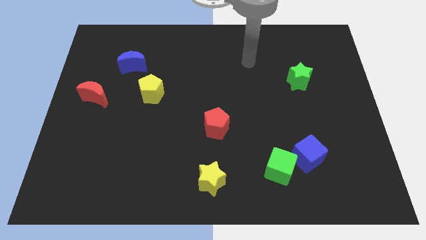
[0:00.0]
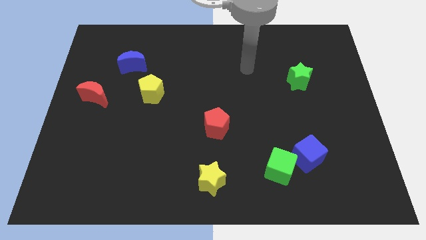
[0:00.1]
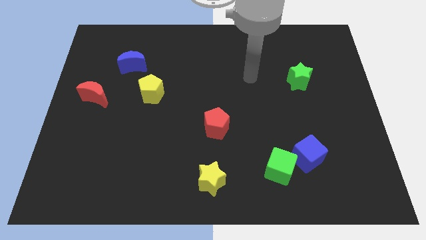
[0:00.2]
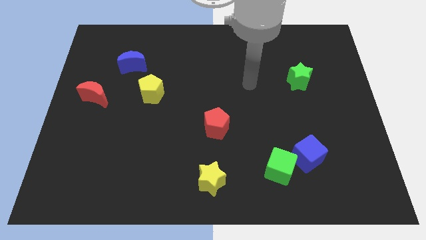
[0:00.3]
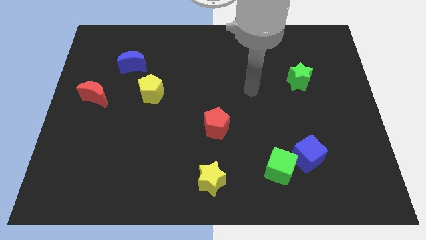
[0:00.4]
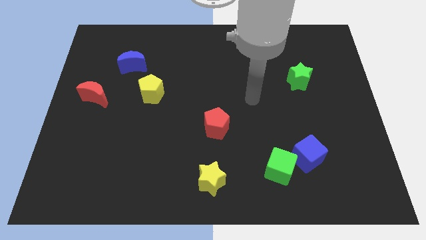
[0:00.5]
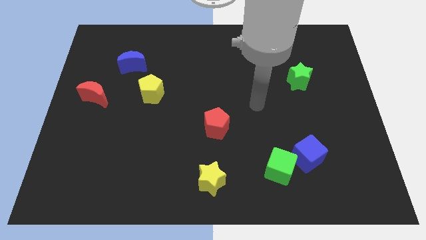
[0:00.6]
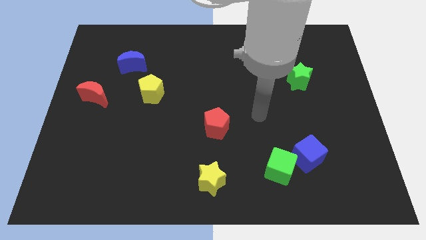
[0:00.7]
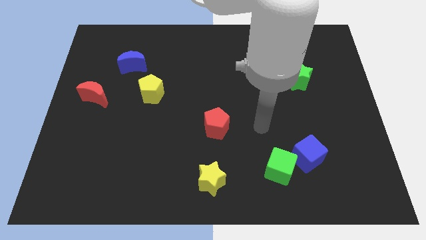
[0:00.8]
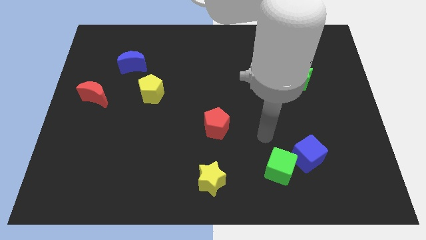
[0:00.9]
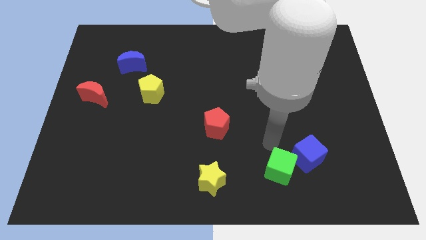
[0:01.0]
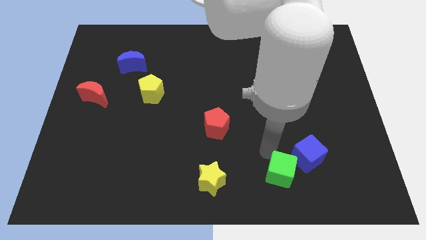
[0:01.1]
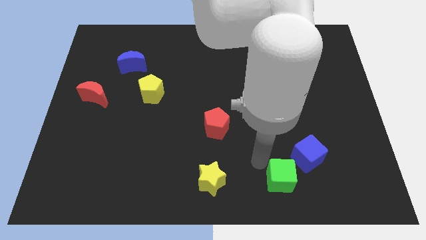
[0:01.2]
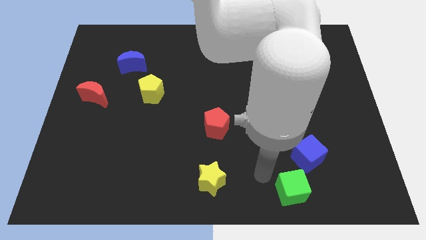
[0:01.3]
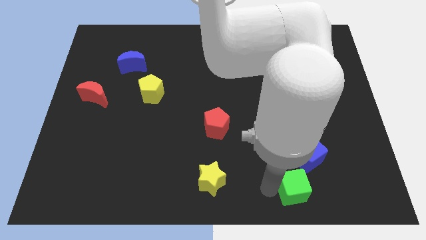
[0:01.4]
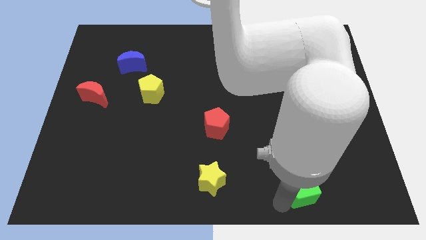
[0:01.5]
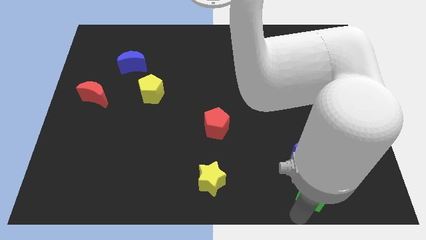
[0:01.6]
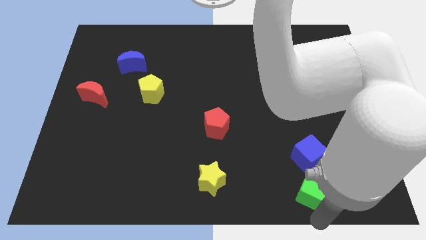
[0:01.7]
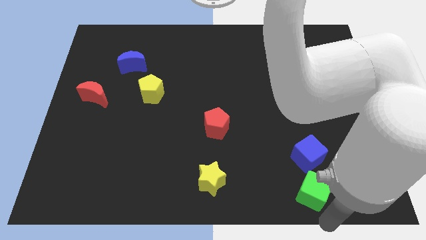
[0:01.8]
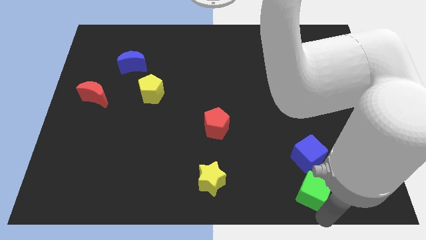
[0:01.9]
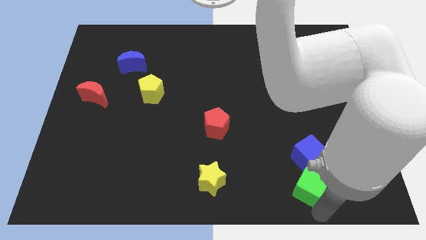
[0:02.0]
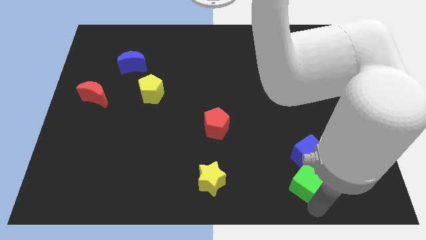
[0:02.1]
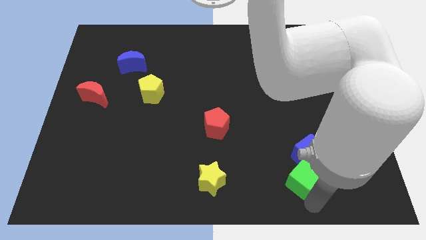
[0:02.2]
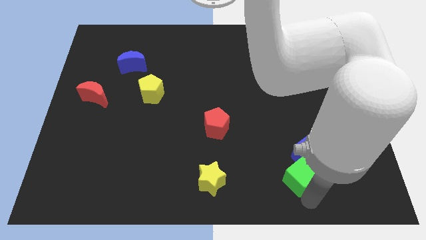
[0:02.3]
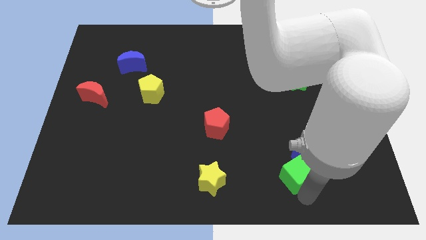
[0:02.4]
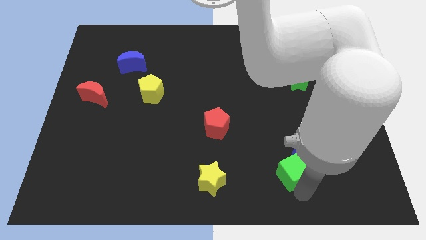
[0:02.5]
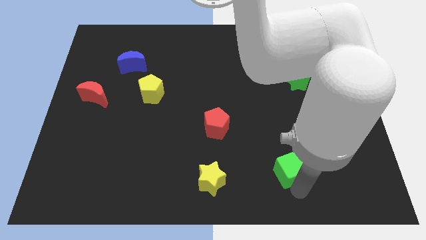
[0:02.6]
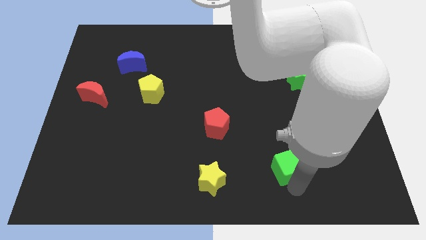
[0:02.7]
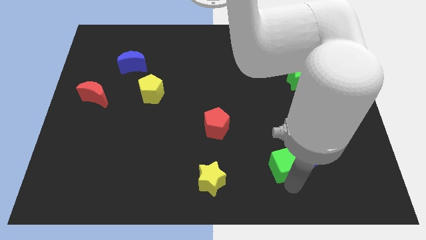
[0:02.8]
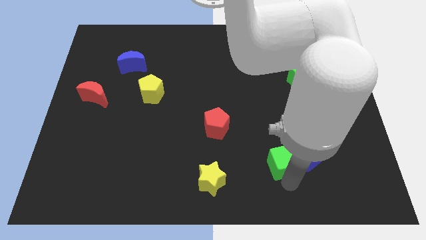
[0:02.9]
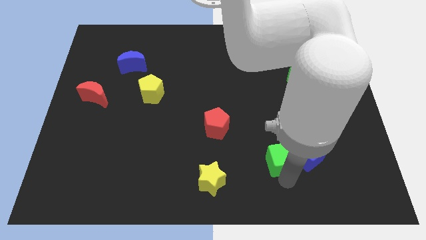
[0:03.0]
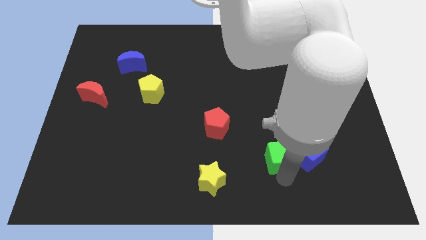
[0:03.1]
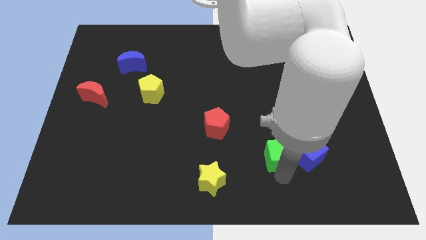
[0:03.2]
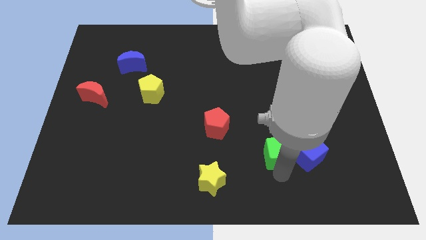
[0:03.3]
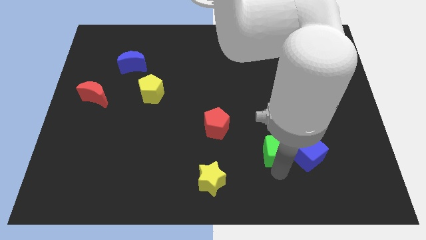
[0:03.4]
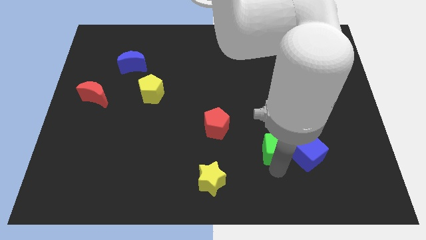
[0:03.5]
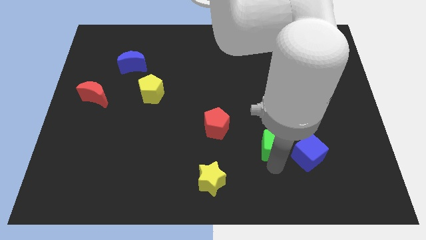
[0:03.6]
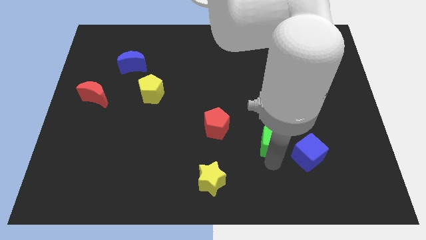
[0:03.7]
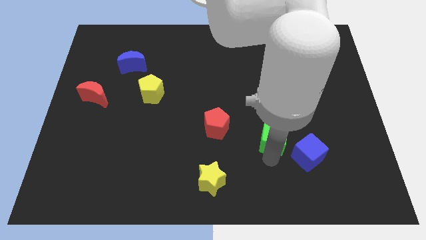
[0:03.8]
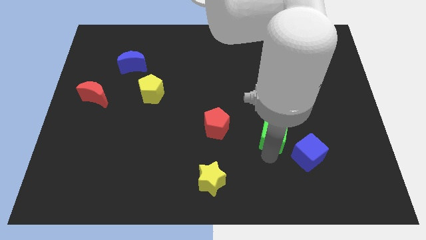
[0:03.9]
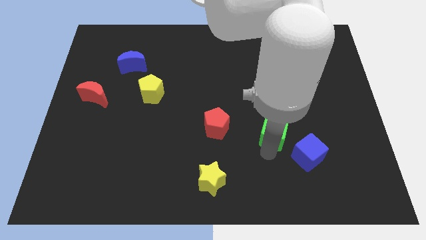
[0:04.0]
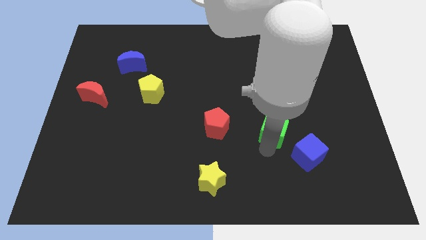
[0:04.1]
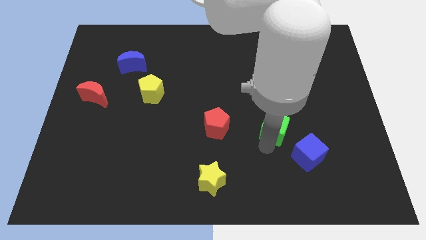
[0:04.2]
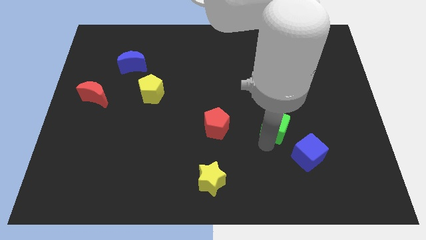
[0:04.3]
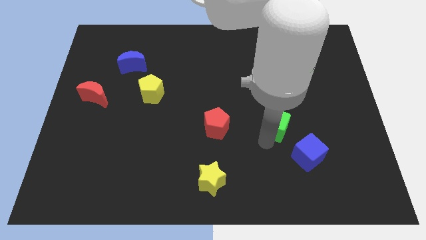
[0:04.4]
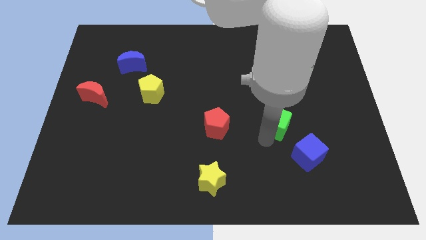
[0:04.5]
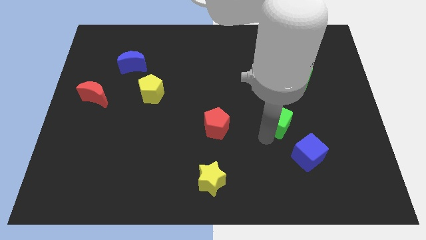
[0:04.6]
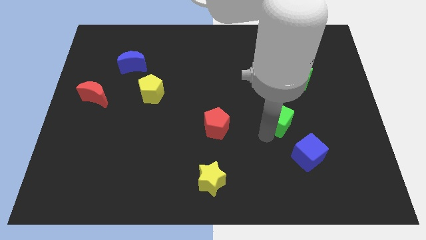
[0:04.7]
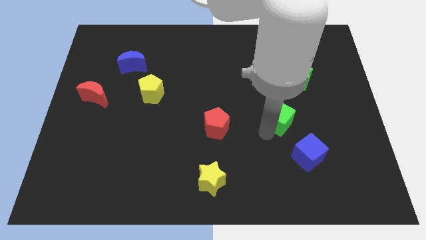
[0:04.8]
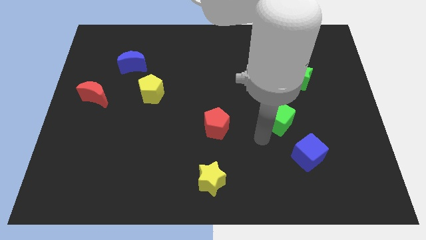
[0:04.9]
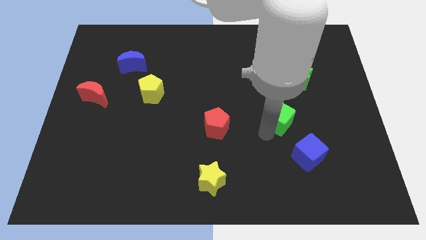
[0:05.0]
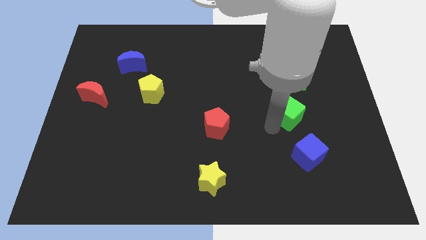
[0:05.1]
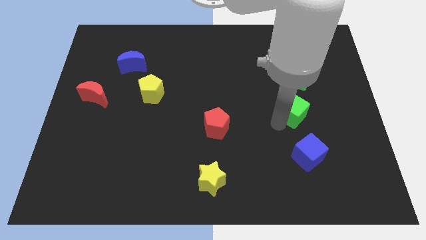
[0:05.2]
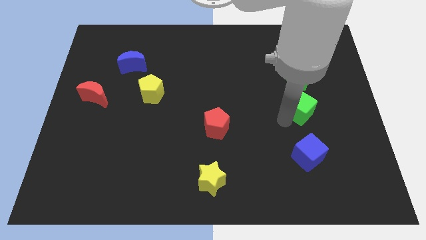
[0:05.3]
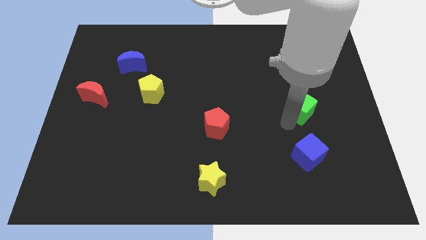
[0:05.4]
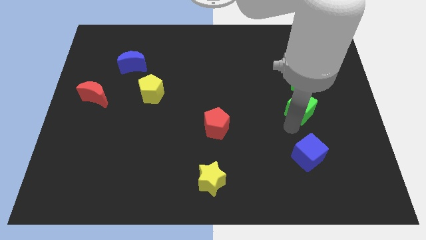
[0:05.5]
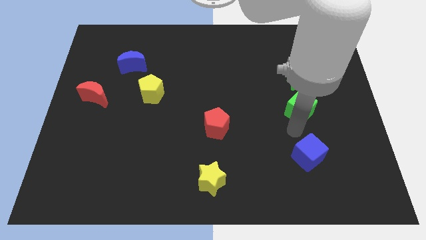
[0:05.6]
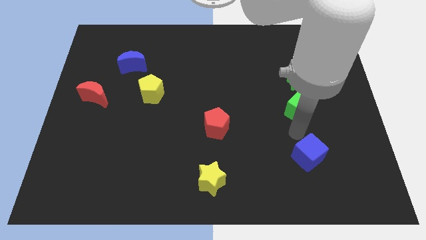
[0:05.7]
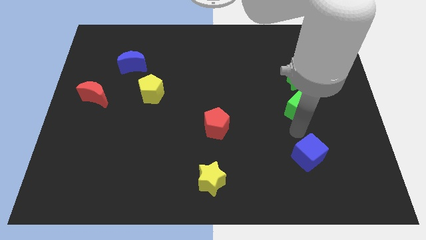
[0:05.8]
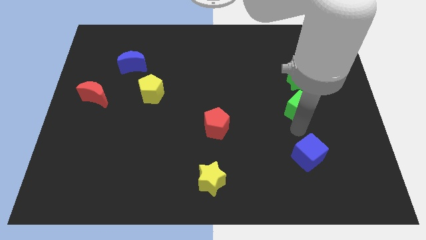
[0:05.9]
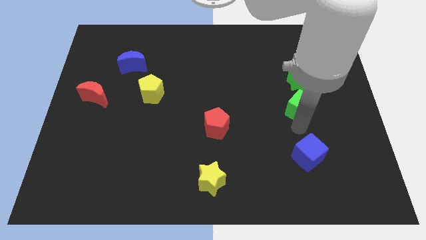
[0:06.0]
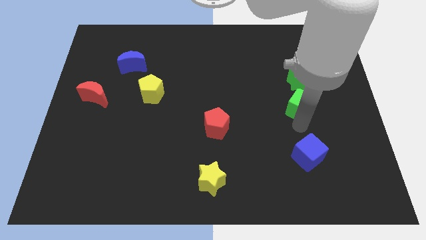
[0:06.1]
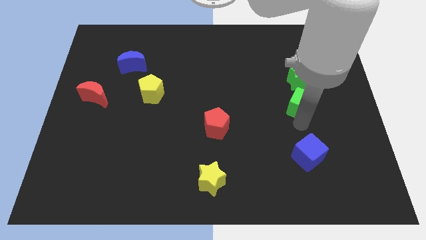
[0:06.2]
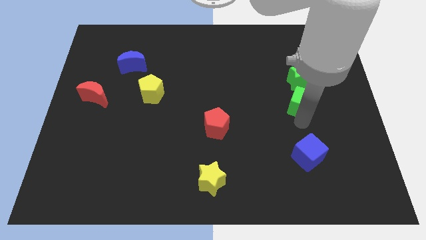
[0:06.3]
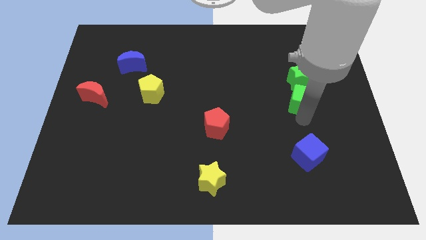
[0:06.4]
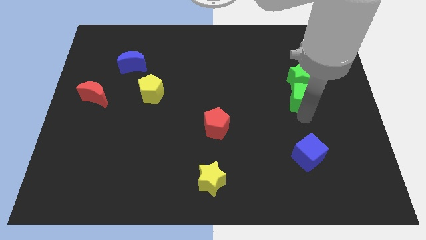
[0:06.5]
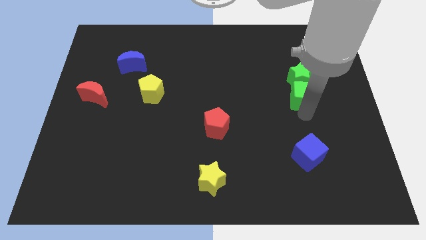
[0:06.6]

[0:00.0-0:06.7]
push the green cube next to the green star

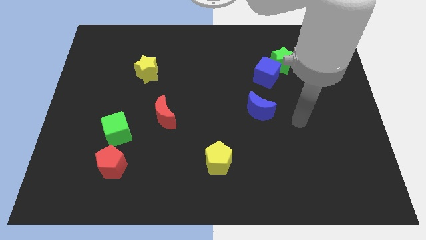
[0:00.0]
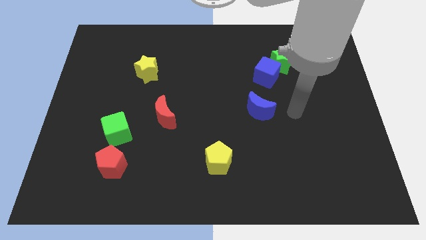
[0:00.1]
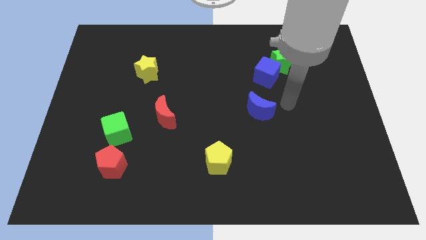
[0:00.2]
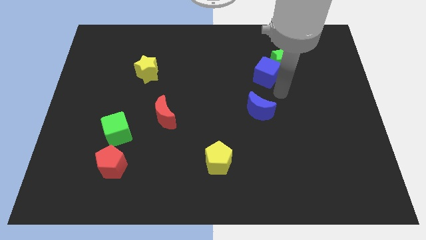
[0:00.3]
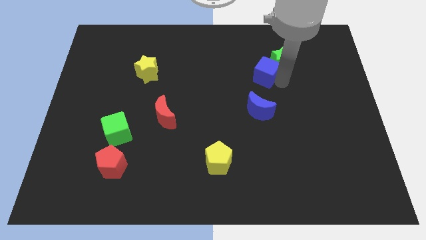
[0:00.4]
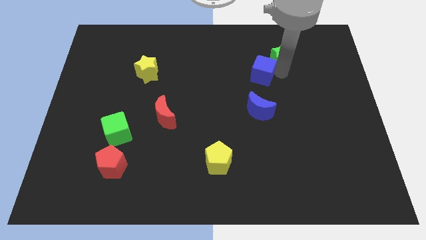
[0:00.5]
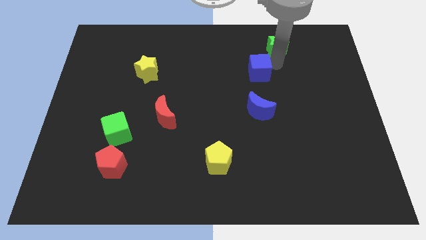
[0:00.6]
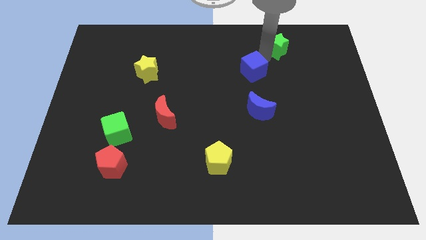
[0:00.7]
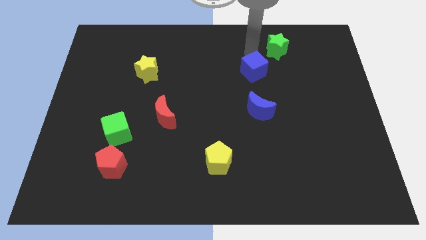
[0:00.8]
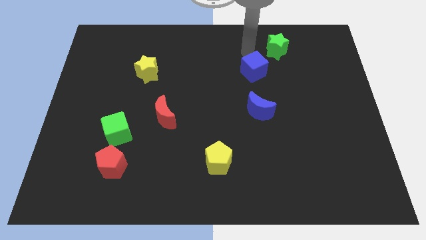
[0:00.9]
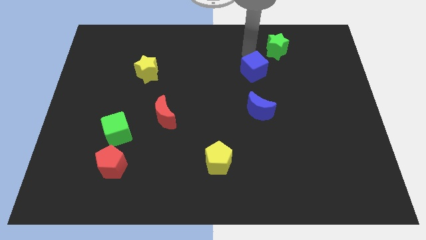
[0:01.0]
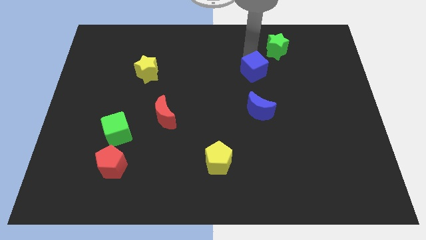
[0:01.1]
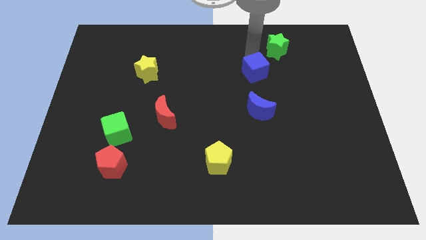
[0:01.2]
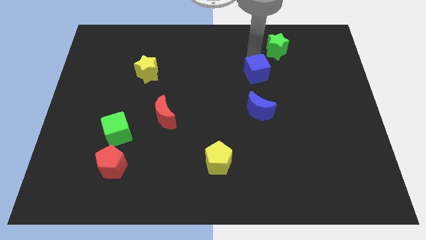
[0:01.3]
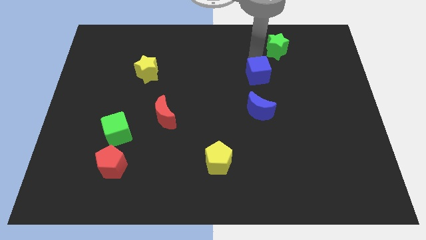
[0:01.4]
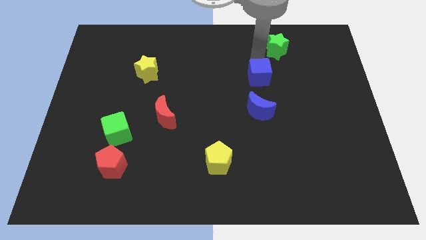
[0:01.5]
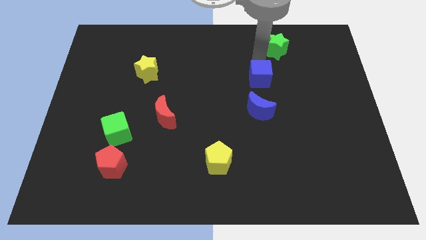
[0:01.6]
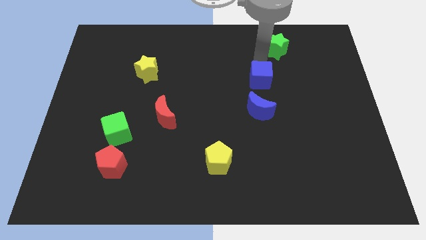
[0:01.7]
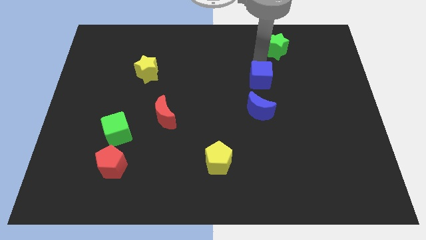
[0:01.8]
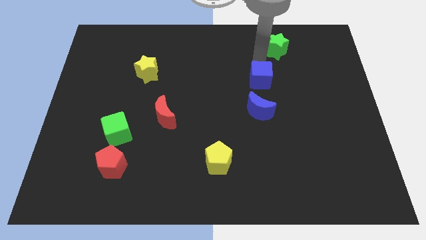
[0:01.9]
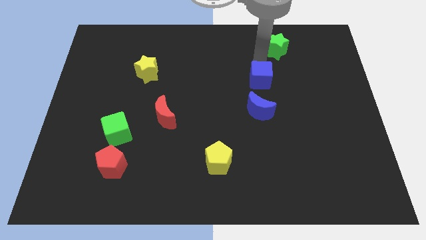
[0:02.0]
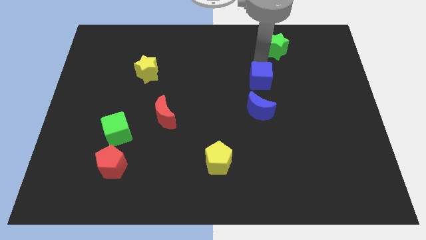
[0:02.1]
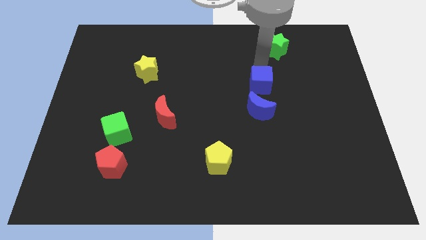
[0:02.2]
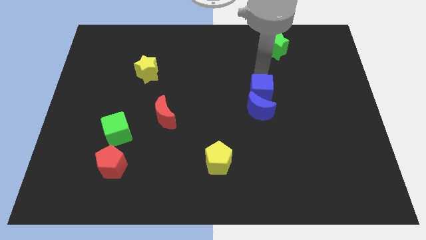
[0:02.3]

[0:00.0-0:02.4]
push the blue cube to the blue moon
